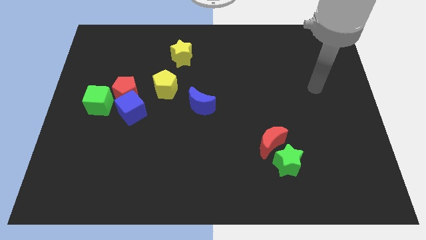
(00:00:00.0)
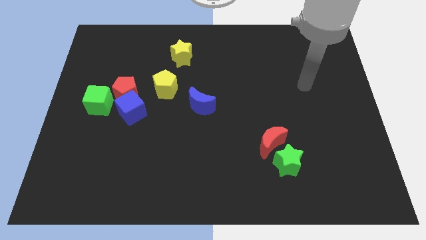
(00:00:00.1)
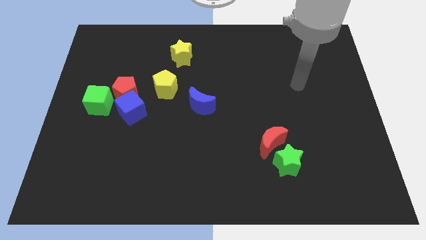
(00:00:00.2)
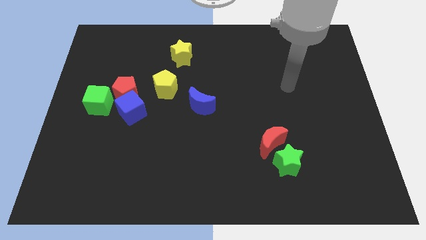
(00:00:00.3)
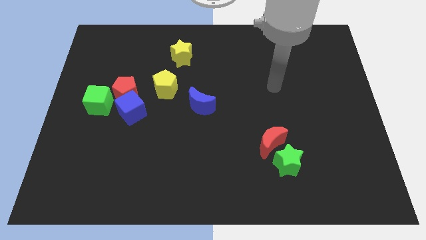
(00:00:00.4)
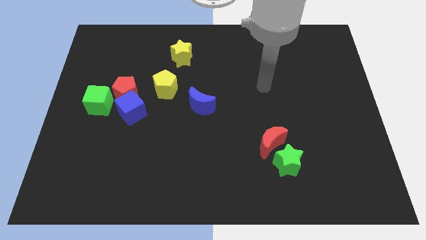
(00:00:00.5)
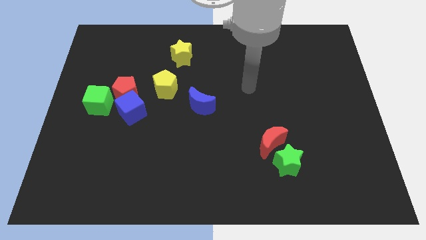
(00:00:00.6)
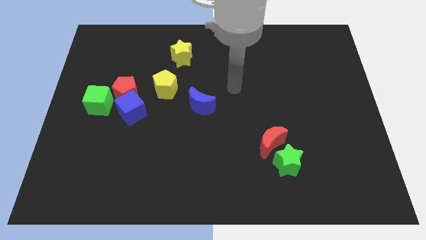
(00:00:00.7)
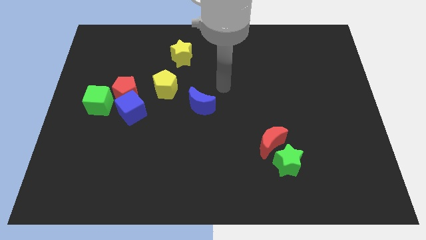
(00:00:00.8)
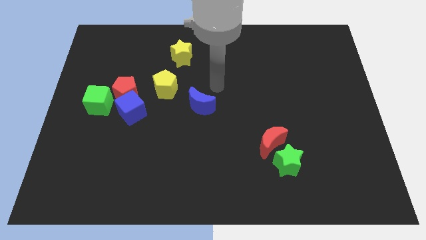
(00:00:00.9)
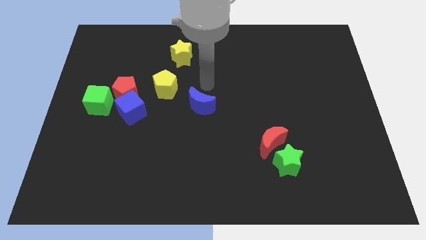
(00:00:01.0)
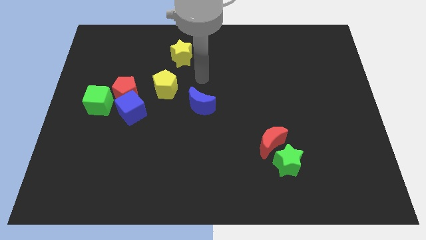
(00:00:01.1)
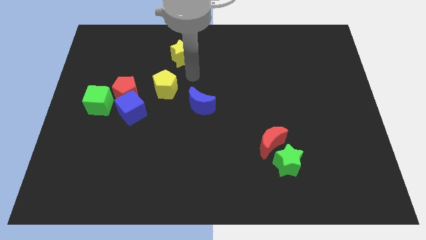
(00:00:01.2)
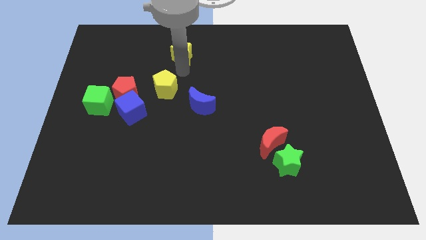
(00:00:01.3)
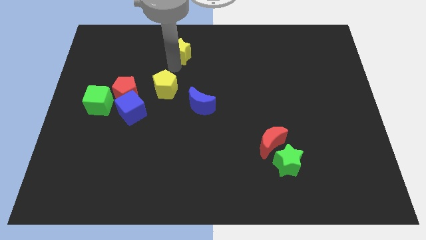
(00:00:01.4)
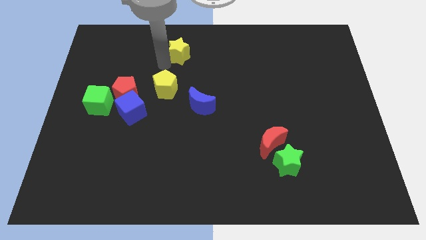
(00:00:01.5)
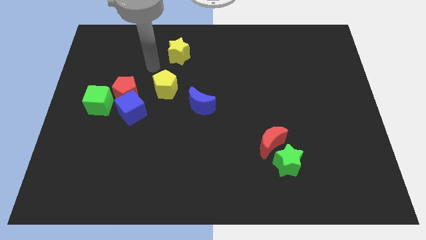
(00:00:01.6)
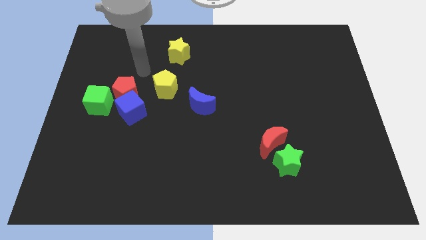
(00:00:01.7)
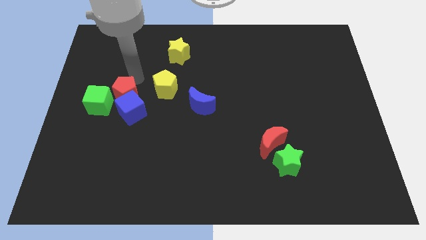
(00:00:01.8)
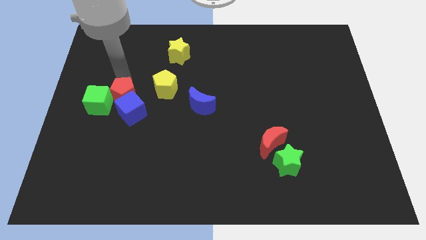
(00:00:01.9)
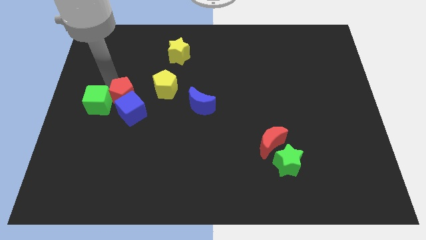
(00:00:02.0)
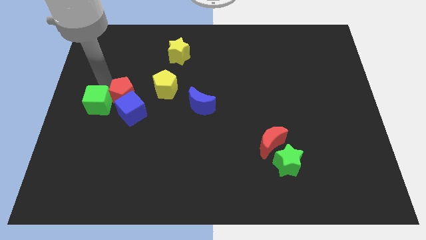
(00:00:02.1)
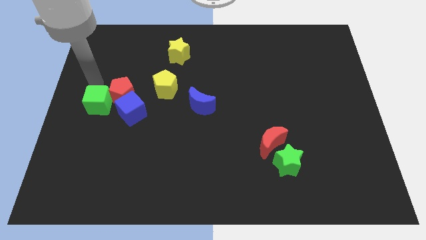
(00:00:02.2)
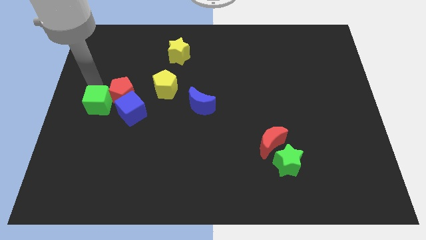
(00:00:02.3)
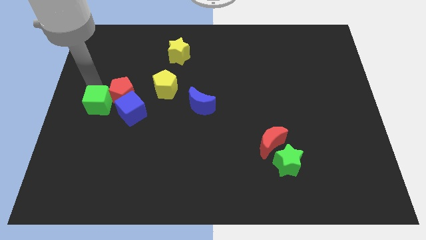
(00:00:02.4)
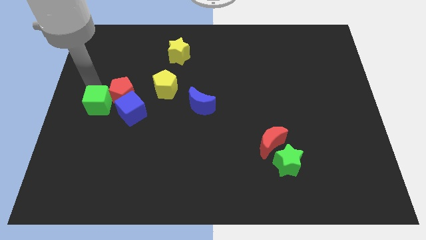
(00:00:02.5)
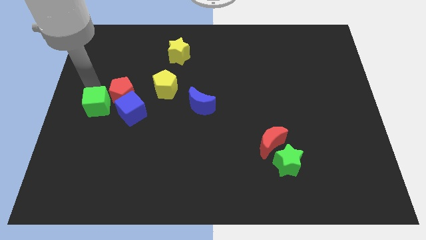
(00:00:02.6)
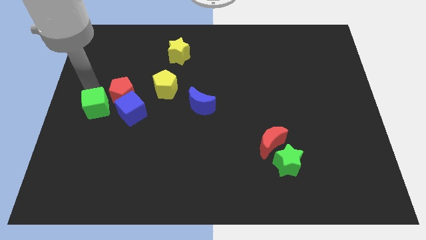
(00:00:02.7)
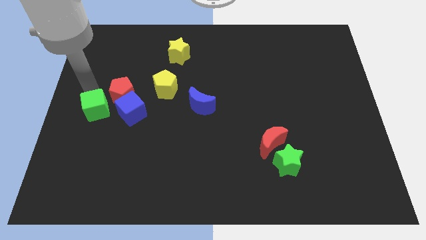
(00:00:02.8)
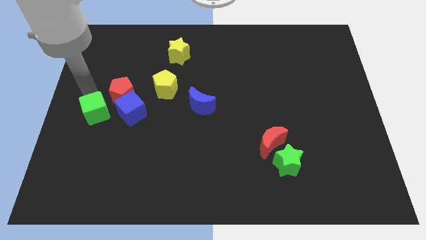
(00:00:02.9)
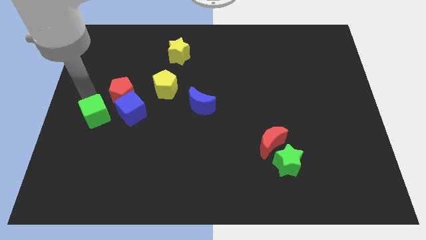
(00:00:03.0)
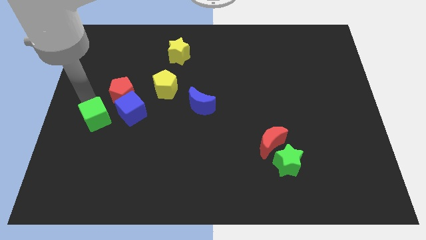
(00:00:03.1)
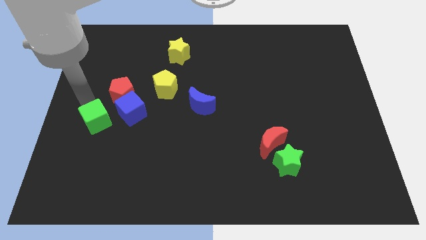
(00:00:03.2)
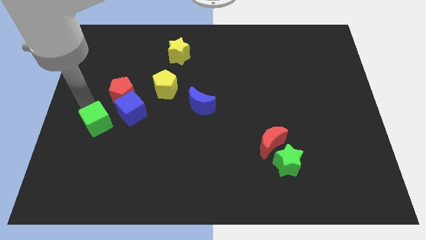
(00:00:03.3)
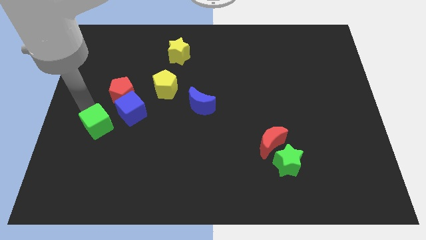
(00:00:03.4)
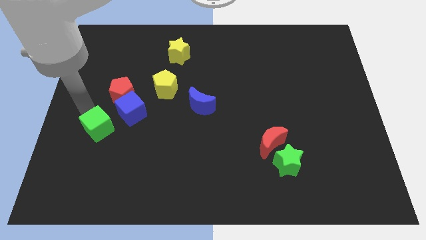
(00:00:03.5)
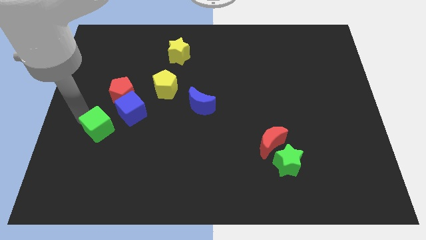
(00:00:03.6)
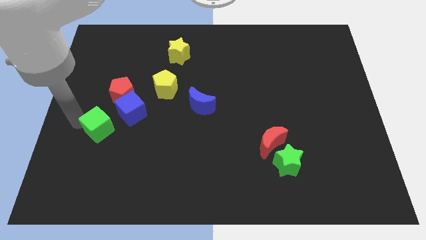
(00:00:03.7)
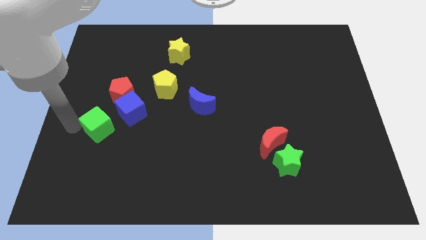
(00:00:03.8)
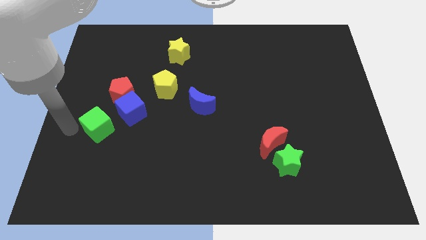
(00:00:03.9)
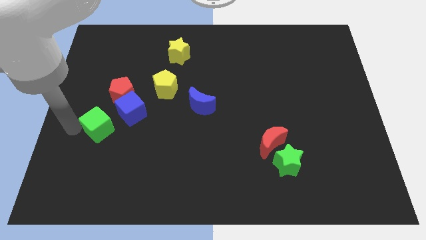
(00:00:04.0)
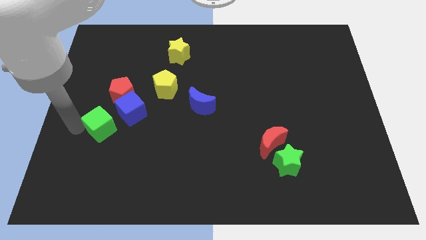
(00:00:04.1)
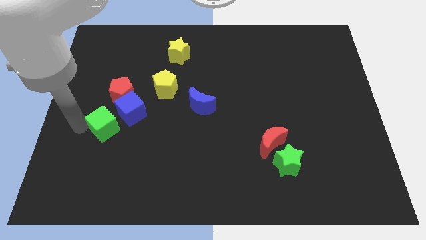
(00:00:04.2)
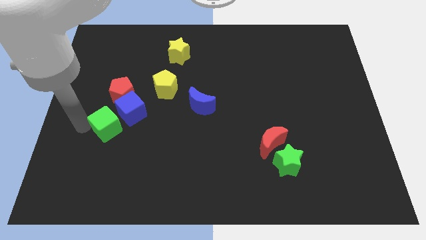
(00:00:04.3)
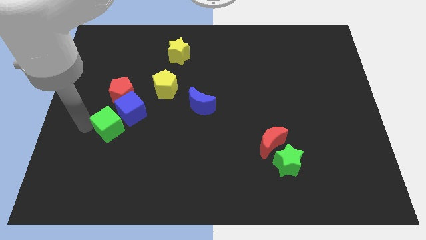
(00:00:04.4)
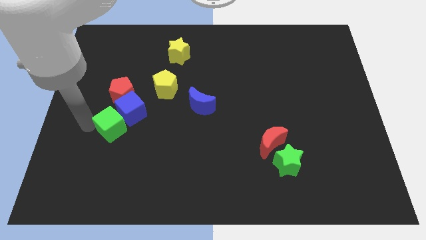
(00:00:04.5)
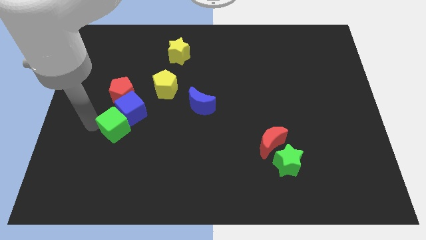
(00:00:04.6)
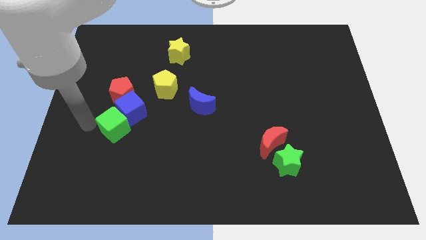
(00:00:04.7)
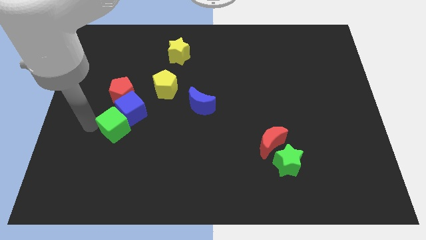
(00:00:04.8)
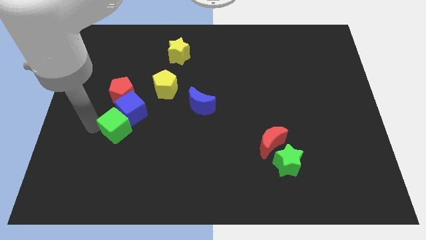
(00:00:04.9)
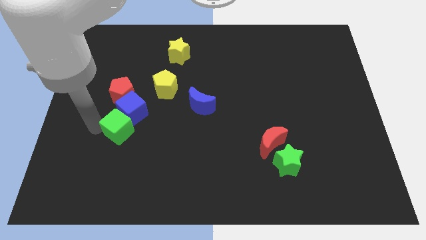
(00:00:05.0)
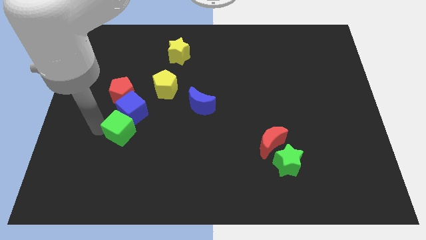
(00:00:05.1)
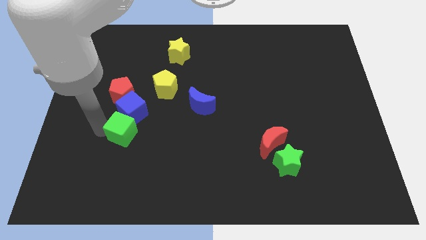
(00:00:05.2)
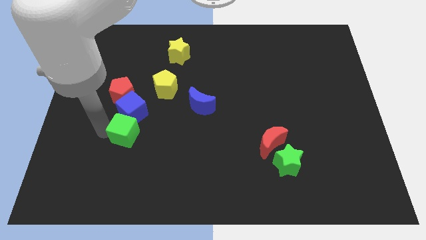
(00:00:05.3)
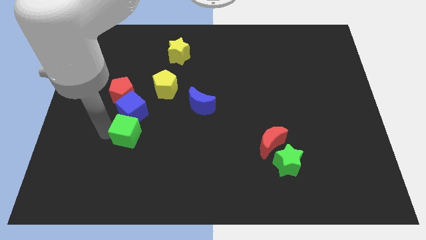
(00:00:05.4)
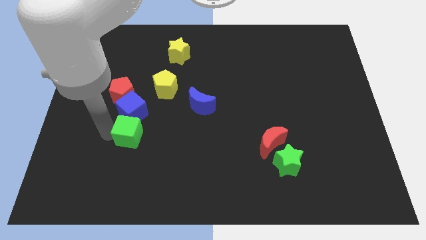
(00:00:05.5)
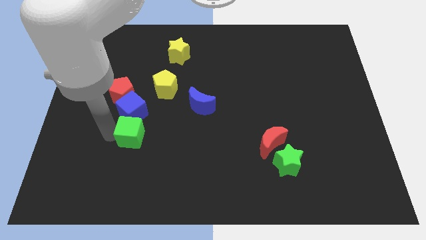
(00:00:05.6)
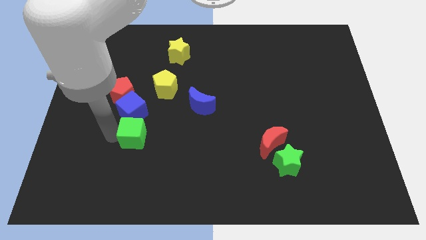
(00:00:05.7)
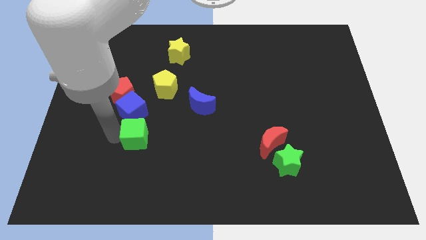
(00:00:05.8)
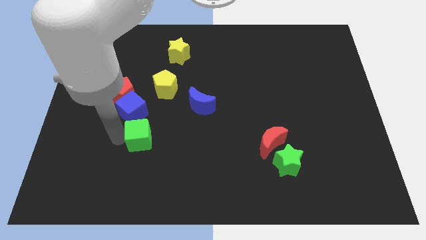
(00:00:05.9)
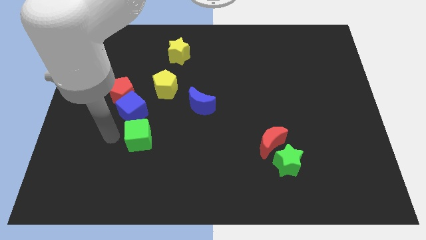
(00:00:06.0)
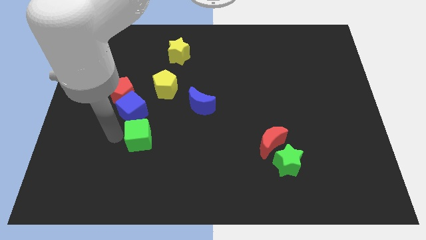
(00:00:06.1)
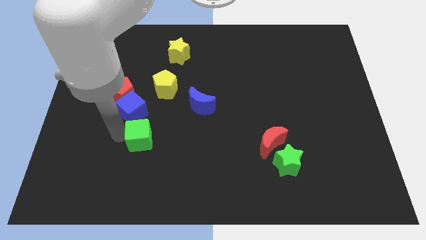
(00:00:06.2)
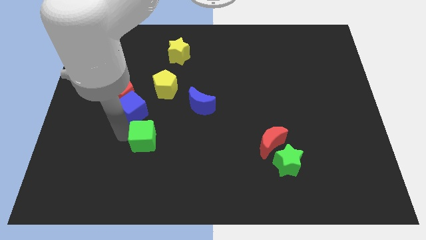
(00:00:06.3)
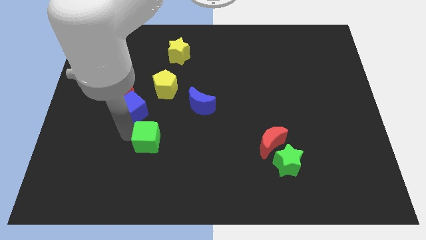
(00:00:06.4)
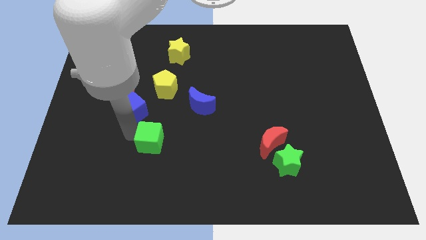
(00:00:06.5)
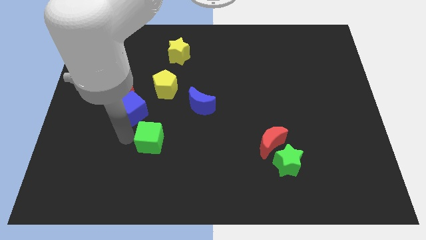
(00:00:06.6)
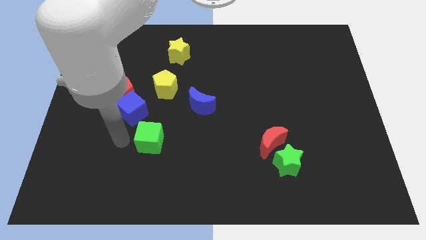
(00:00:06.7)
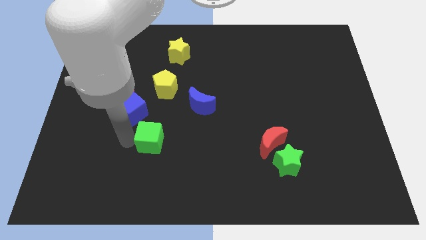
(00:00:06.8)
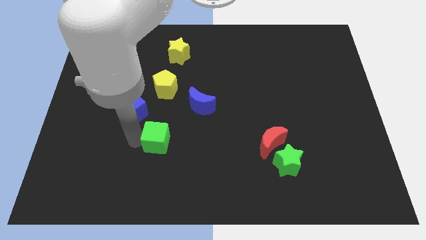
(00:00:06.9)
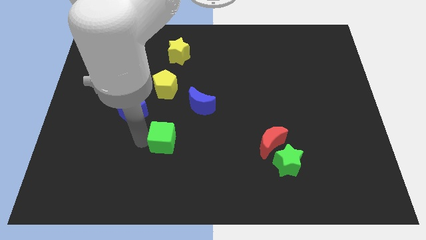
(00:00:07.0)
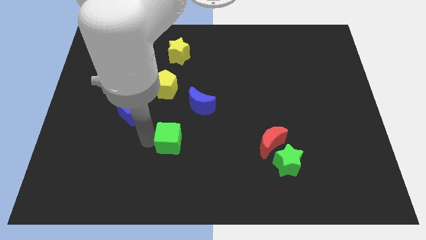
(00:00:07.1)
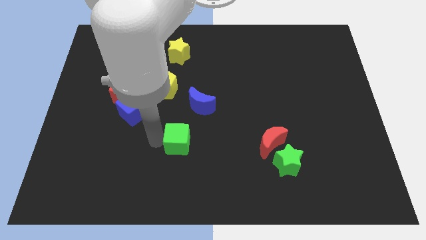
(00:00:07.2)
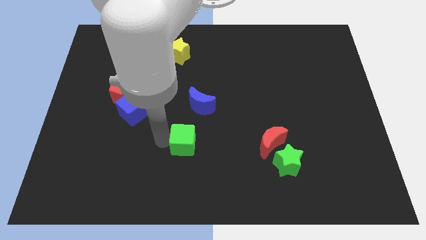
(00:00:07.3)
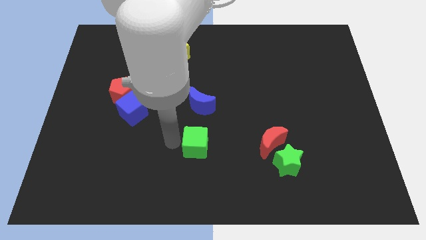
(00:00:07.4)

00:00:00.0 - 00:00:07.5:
push the green cube to the left of the red moon
